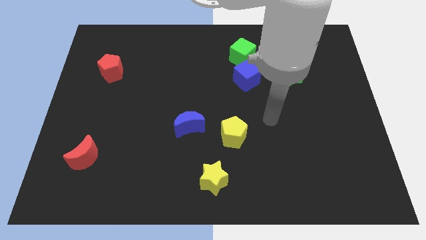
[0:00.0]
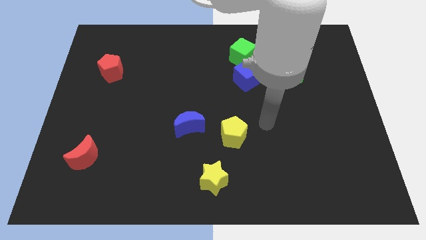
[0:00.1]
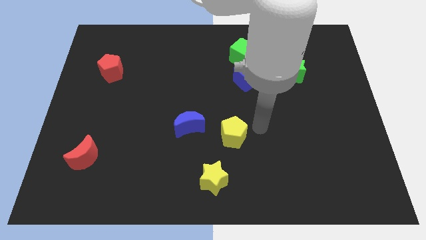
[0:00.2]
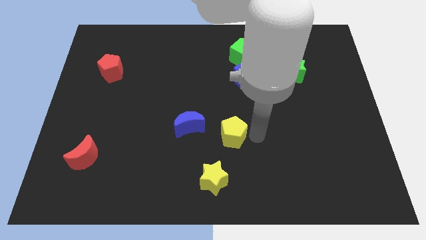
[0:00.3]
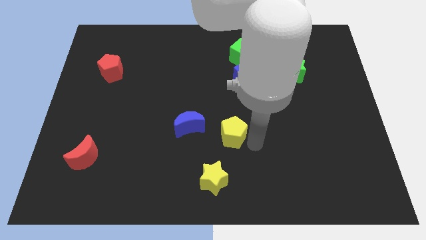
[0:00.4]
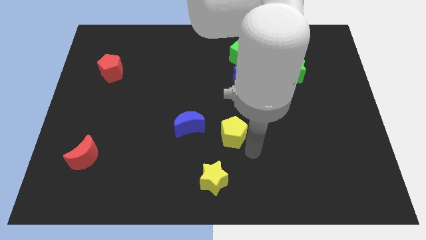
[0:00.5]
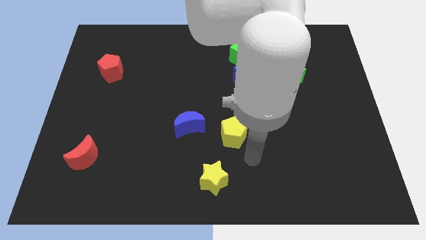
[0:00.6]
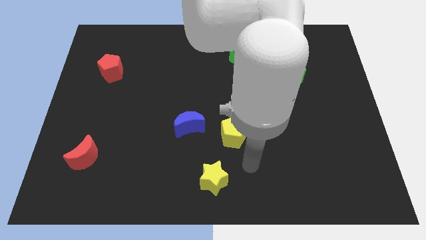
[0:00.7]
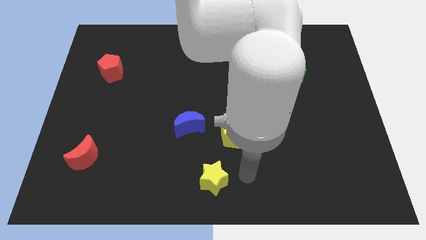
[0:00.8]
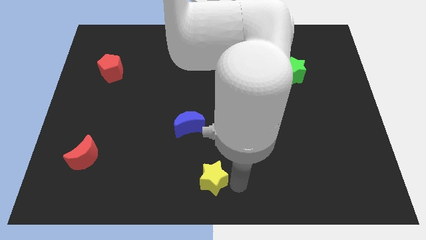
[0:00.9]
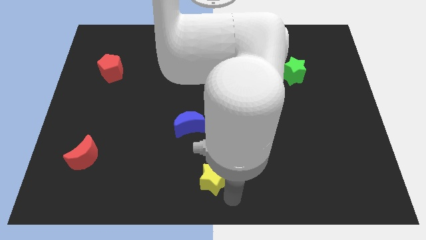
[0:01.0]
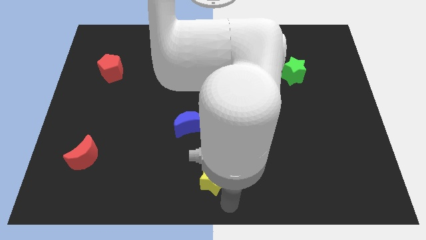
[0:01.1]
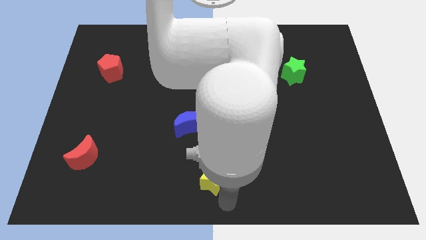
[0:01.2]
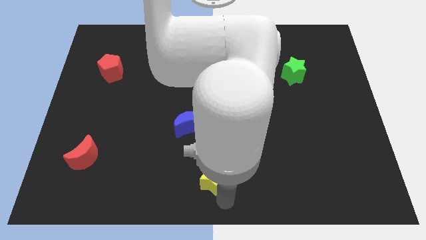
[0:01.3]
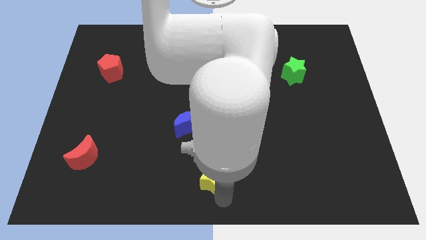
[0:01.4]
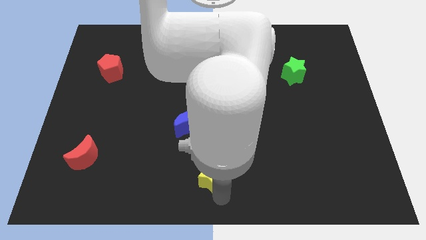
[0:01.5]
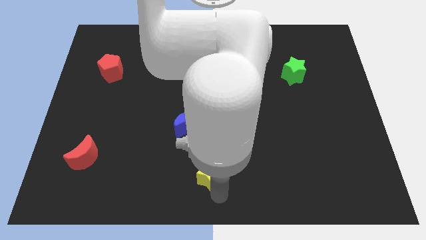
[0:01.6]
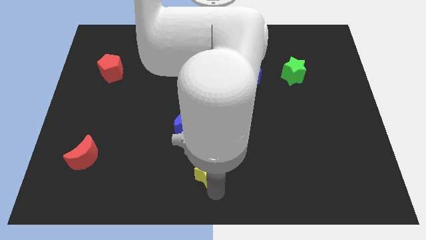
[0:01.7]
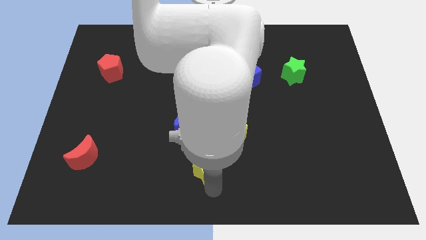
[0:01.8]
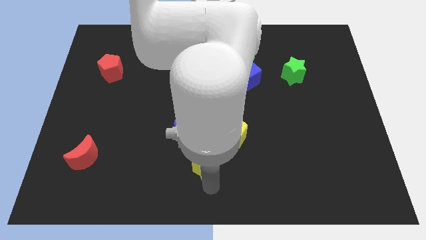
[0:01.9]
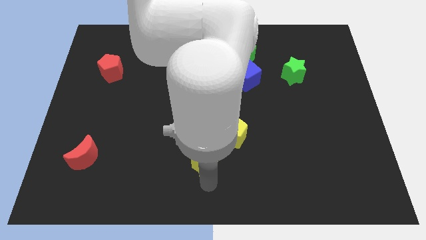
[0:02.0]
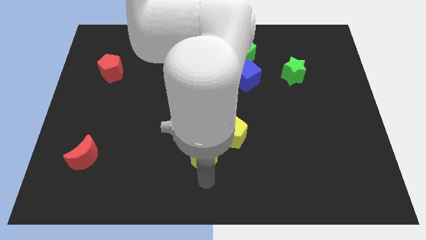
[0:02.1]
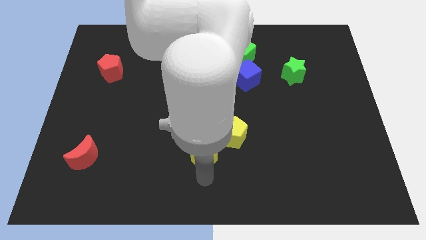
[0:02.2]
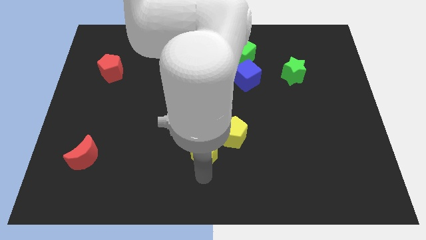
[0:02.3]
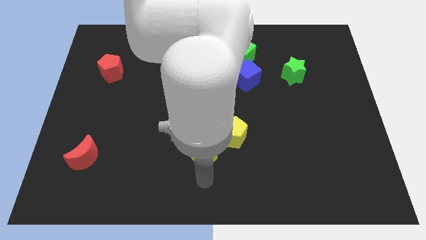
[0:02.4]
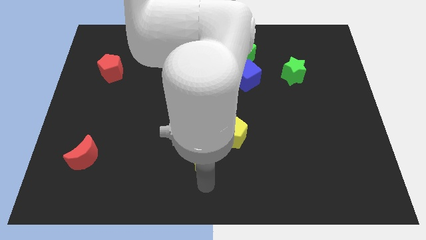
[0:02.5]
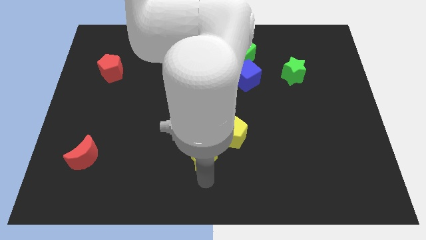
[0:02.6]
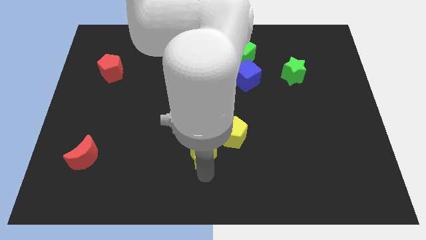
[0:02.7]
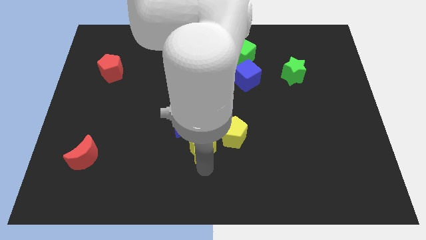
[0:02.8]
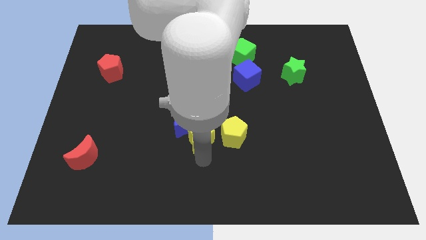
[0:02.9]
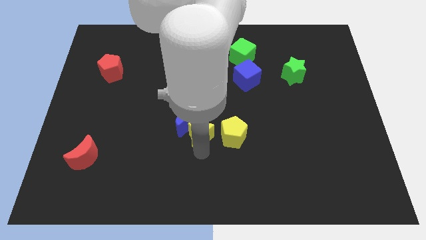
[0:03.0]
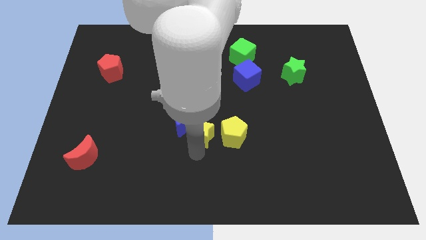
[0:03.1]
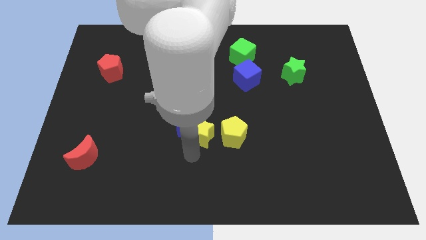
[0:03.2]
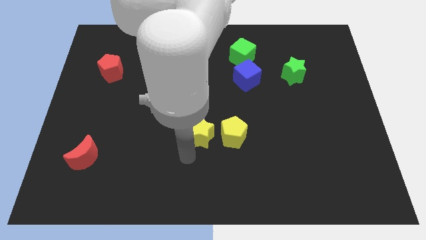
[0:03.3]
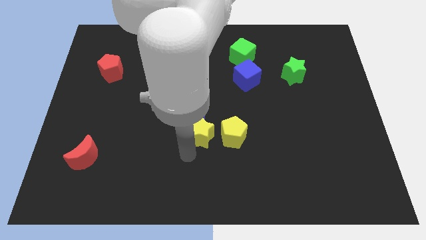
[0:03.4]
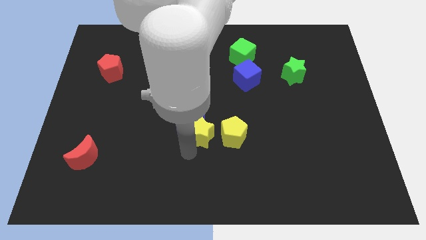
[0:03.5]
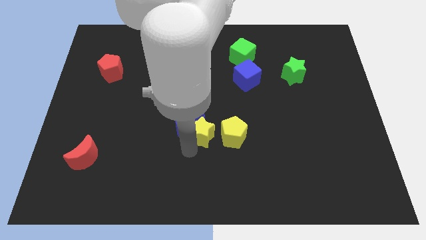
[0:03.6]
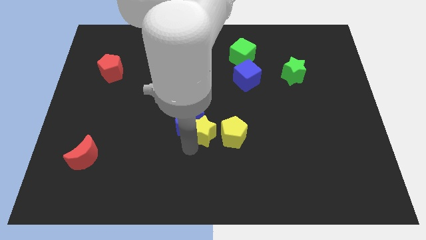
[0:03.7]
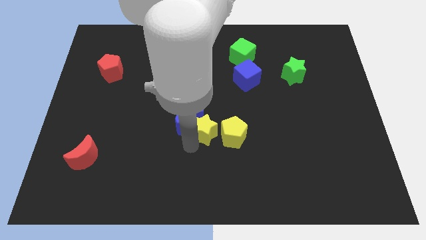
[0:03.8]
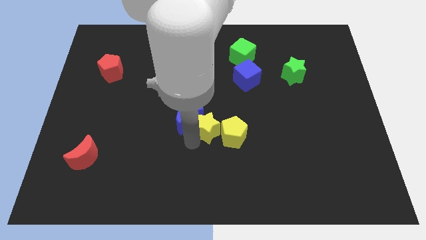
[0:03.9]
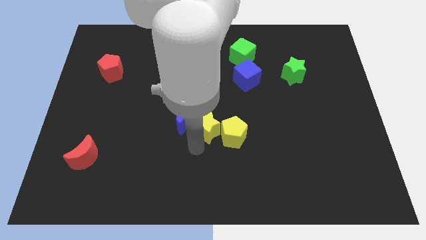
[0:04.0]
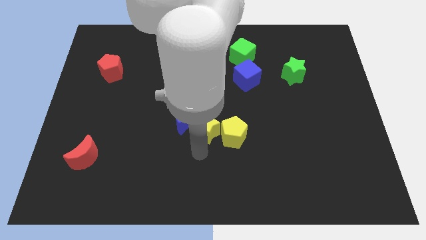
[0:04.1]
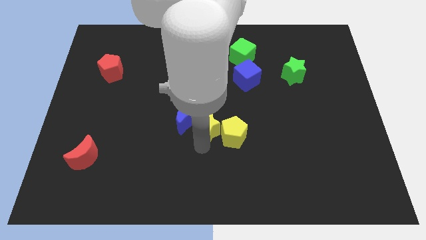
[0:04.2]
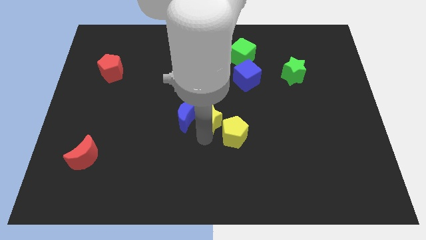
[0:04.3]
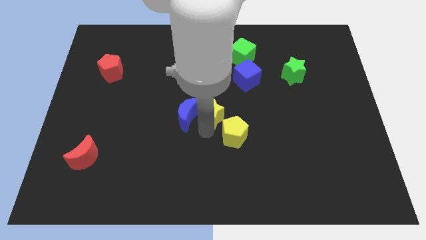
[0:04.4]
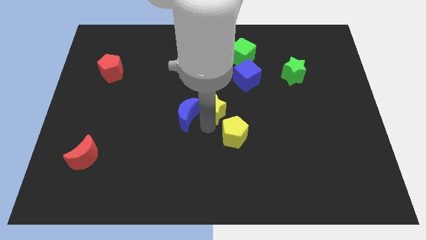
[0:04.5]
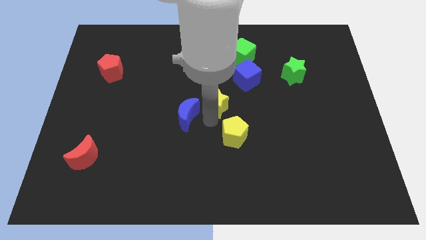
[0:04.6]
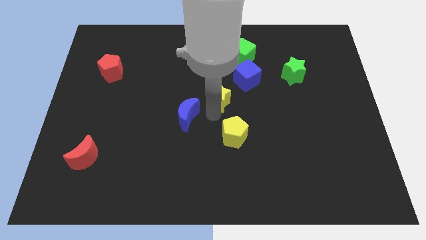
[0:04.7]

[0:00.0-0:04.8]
push the yellow star upwards

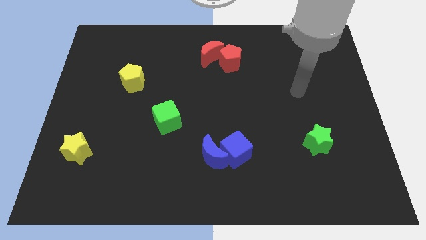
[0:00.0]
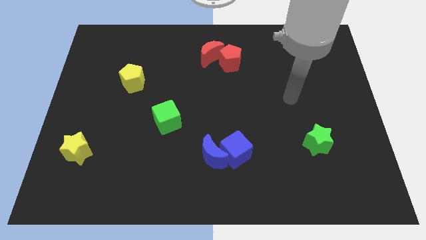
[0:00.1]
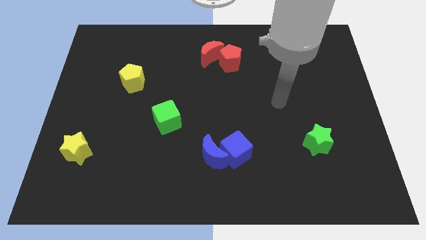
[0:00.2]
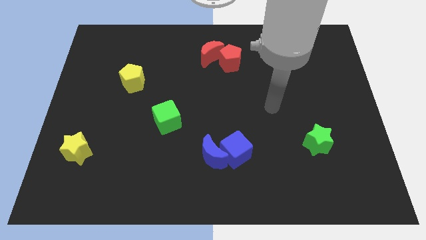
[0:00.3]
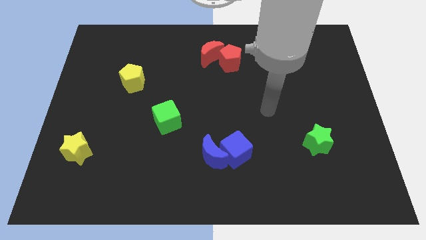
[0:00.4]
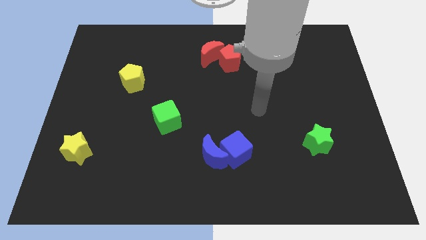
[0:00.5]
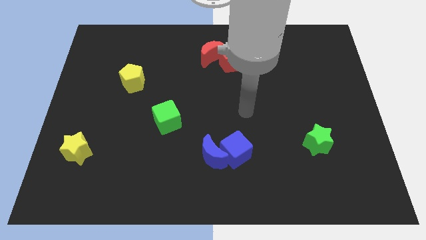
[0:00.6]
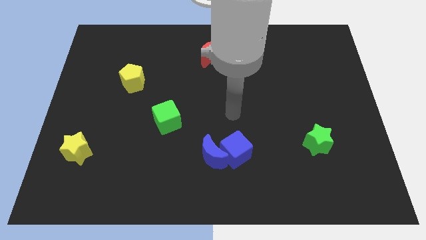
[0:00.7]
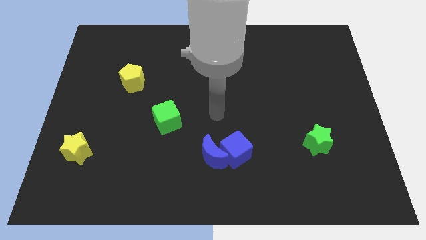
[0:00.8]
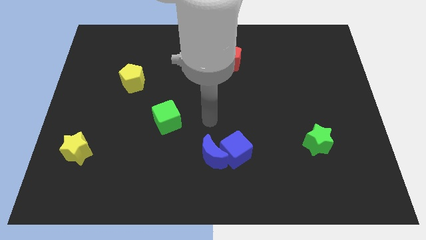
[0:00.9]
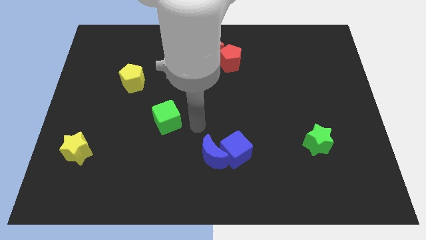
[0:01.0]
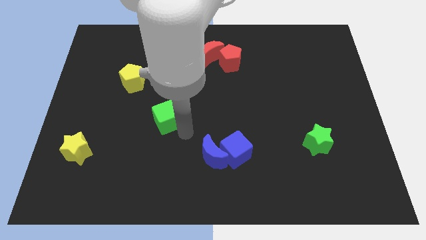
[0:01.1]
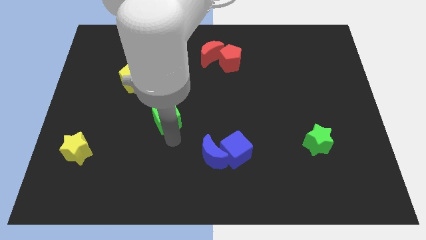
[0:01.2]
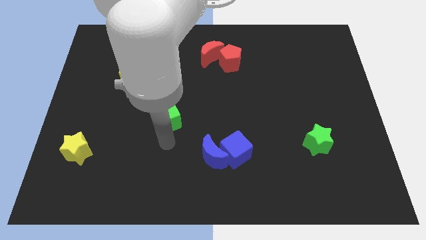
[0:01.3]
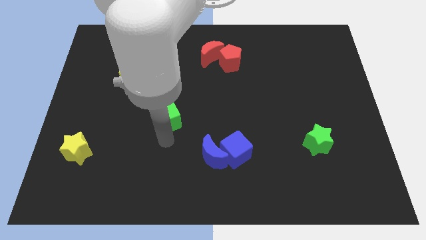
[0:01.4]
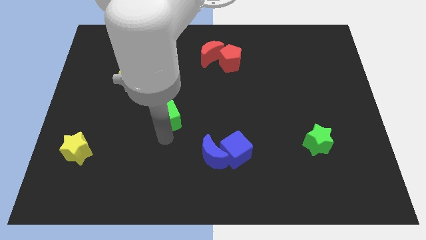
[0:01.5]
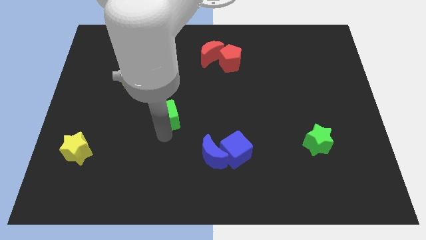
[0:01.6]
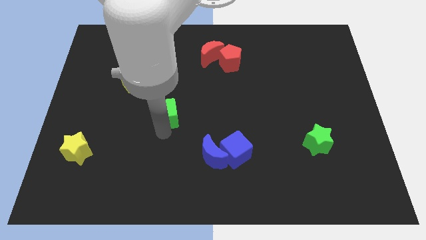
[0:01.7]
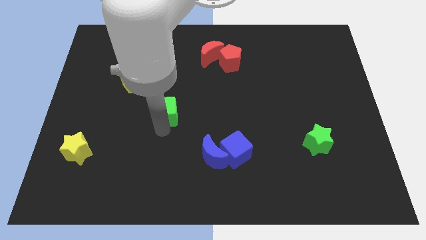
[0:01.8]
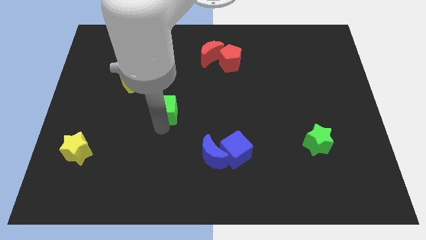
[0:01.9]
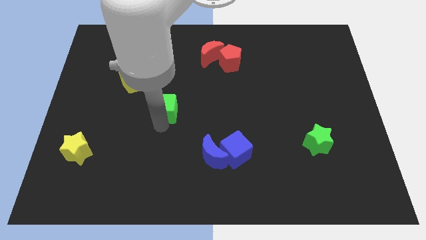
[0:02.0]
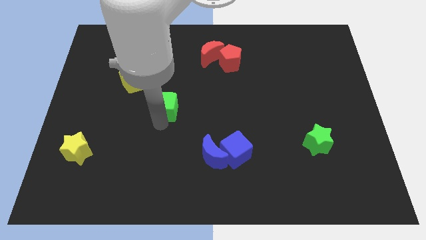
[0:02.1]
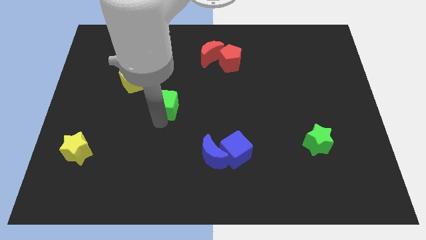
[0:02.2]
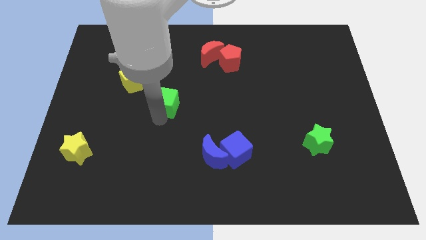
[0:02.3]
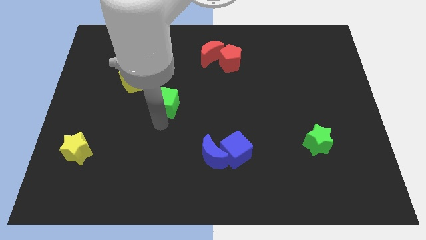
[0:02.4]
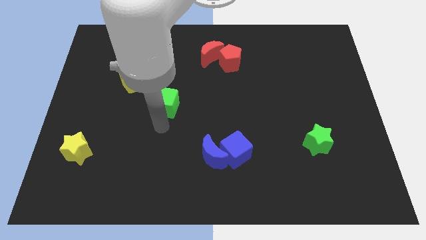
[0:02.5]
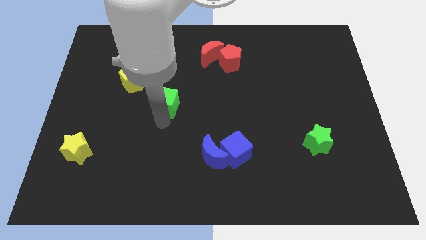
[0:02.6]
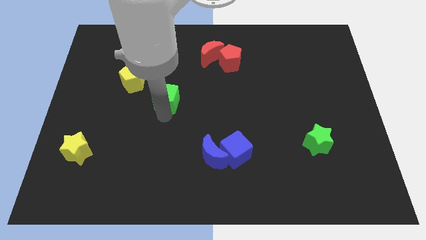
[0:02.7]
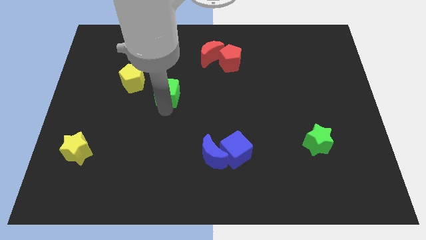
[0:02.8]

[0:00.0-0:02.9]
push the green cube a little up

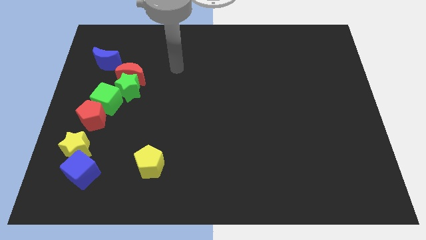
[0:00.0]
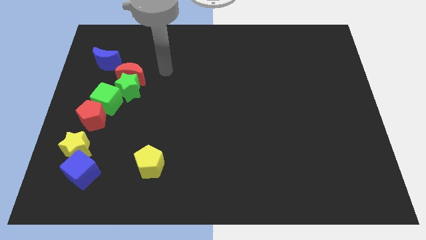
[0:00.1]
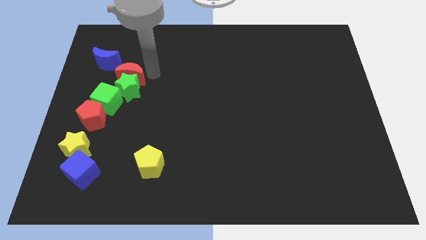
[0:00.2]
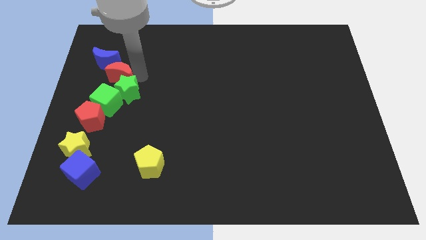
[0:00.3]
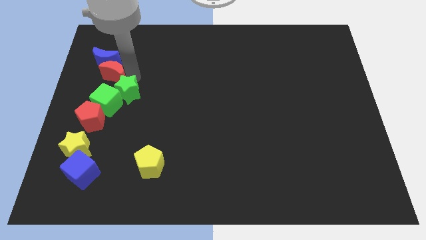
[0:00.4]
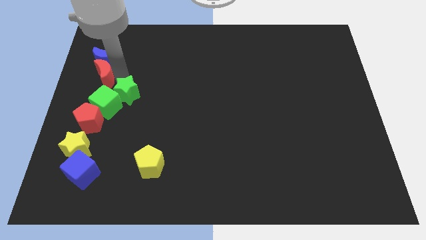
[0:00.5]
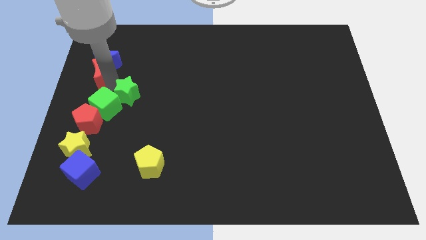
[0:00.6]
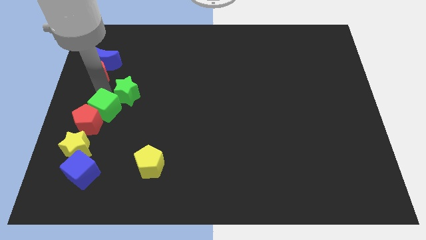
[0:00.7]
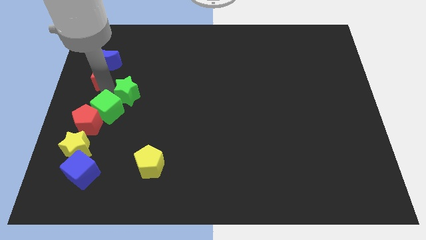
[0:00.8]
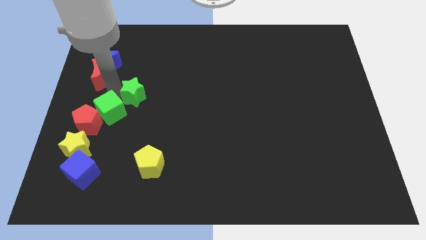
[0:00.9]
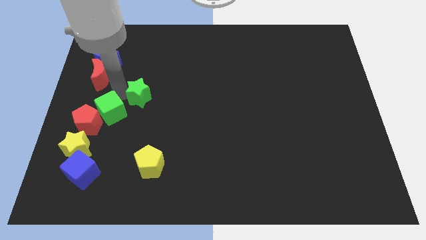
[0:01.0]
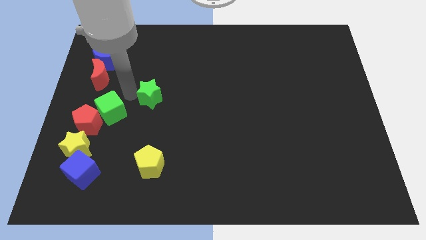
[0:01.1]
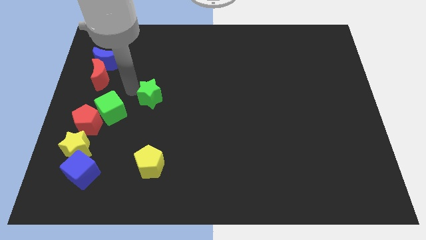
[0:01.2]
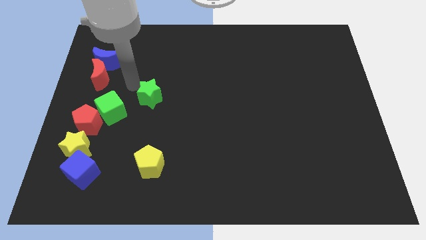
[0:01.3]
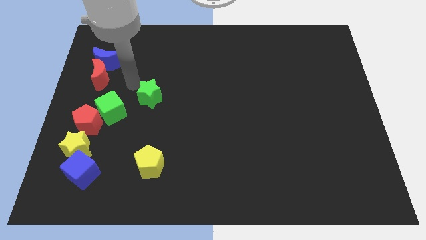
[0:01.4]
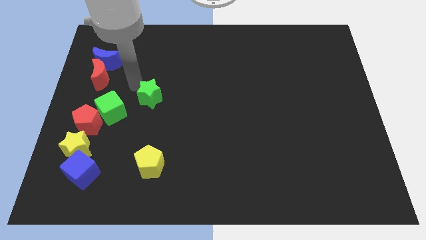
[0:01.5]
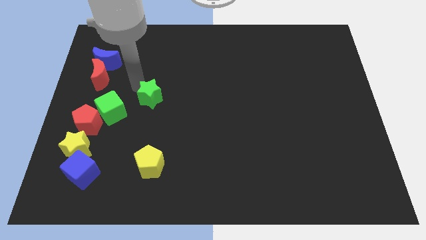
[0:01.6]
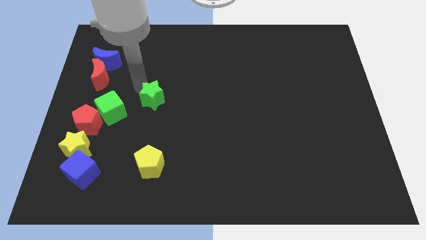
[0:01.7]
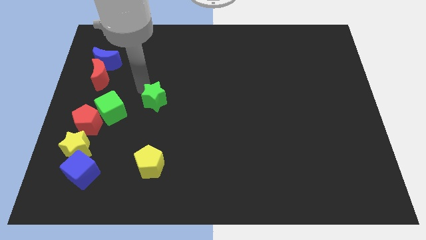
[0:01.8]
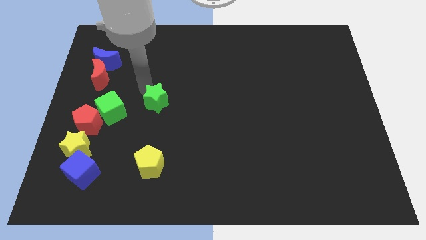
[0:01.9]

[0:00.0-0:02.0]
move the green star diagonally downwards and to the right slightly
